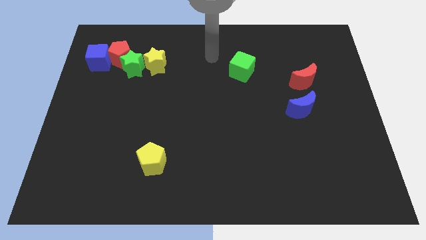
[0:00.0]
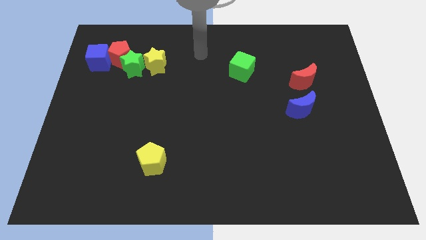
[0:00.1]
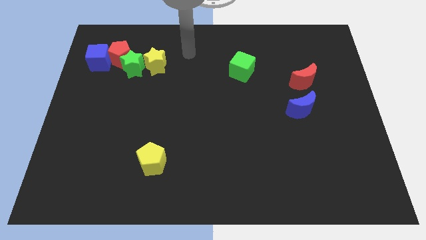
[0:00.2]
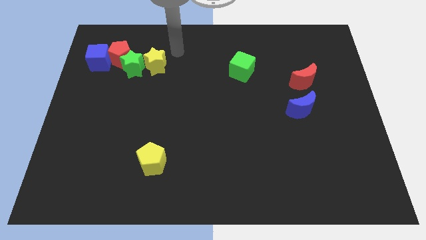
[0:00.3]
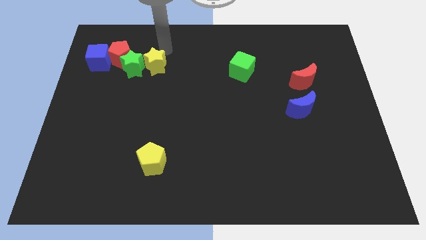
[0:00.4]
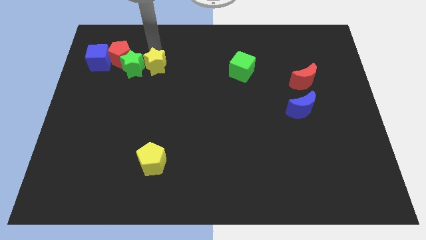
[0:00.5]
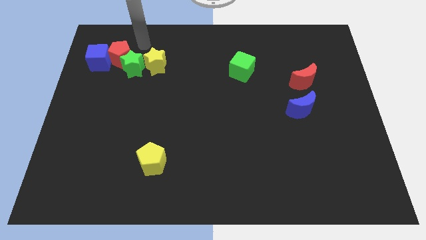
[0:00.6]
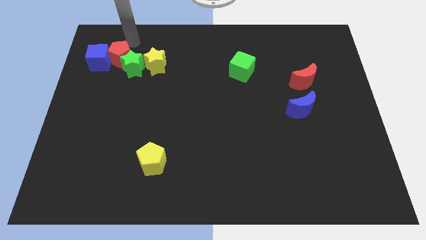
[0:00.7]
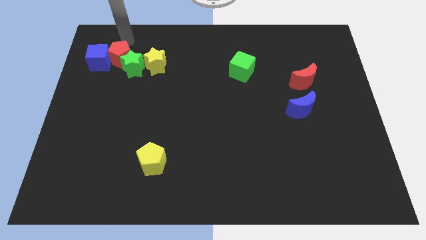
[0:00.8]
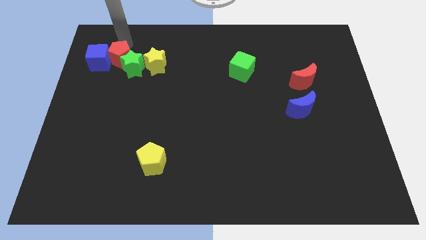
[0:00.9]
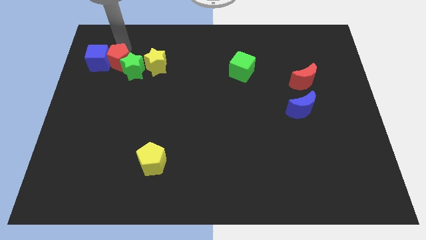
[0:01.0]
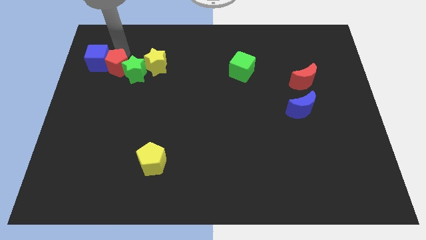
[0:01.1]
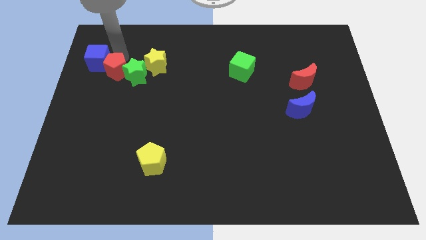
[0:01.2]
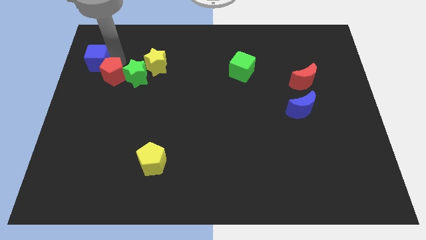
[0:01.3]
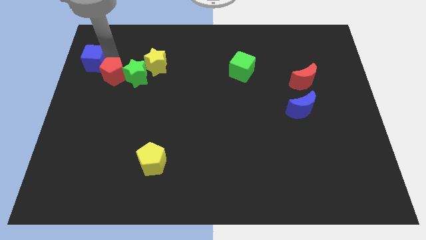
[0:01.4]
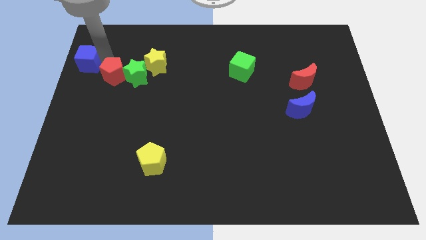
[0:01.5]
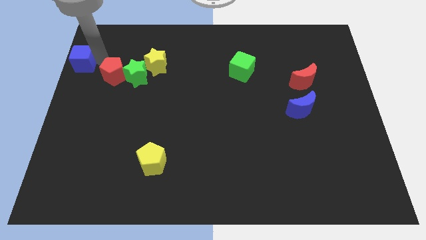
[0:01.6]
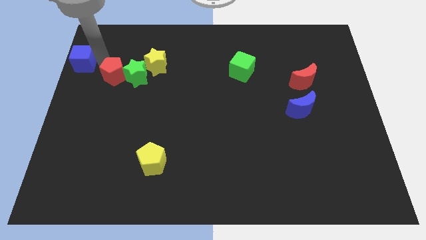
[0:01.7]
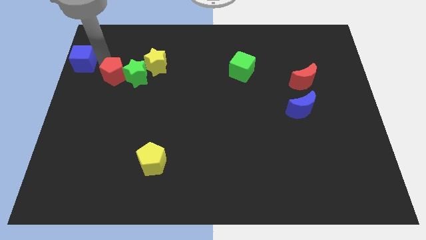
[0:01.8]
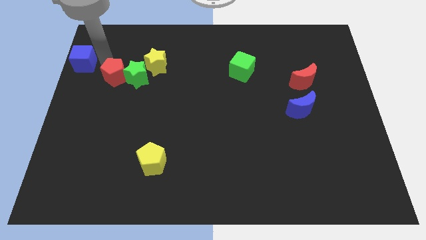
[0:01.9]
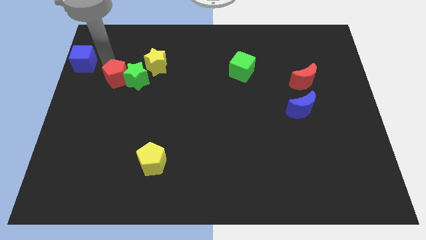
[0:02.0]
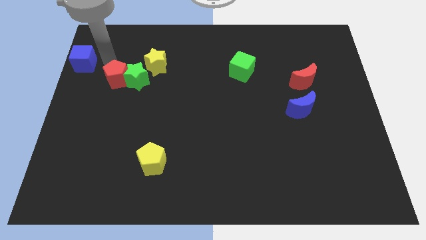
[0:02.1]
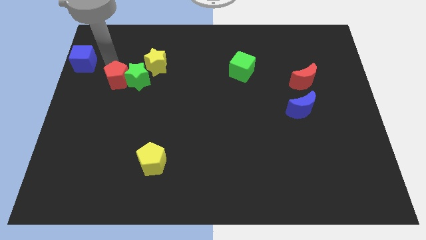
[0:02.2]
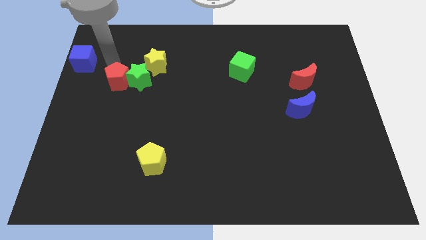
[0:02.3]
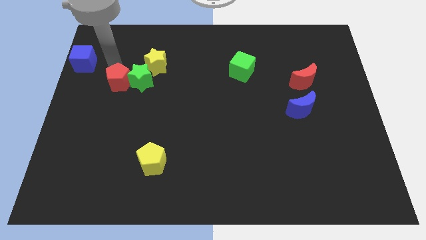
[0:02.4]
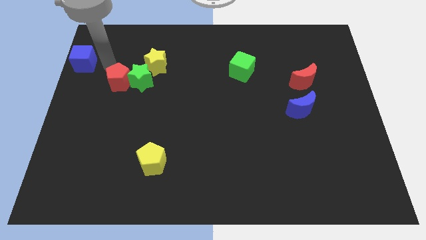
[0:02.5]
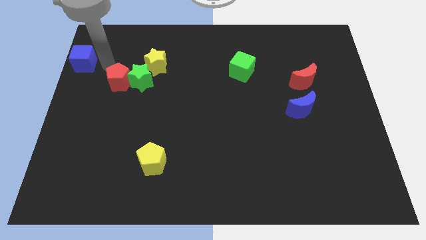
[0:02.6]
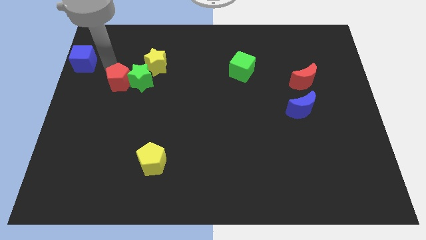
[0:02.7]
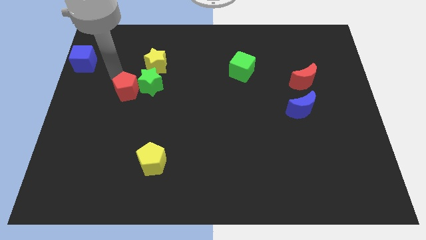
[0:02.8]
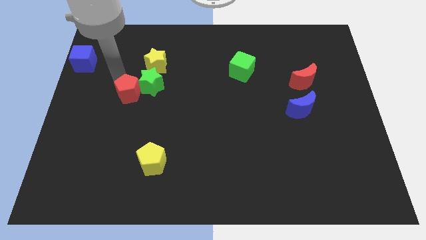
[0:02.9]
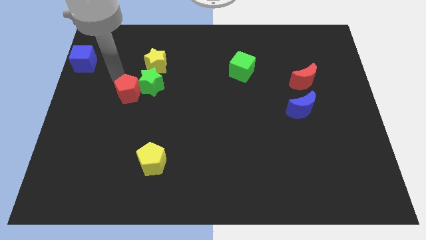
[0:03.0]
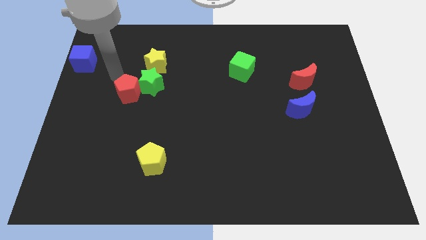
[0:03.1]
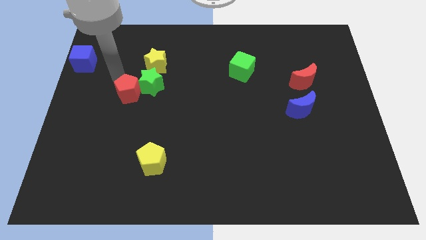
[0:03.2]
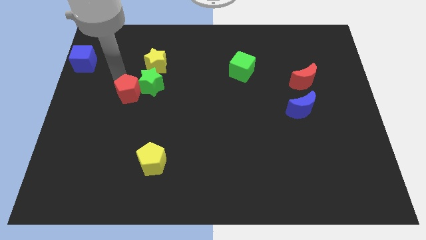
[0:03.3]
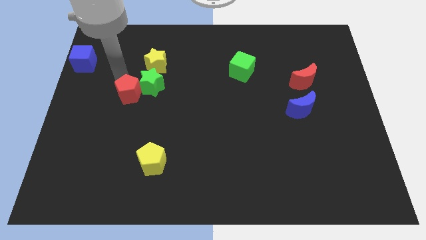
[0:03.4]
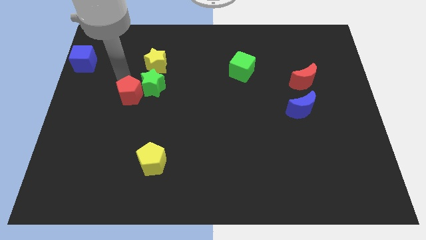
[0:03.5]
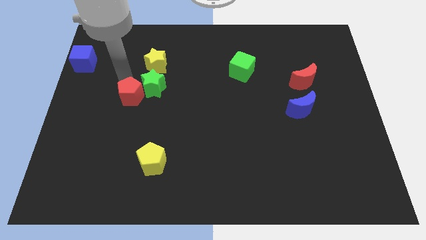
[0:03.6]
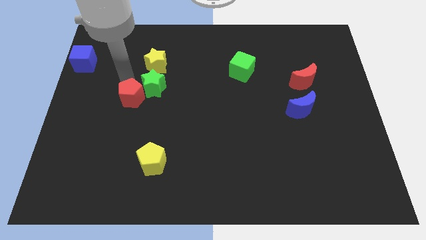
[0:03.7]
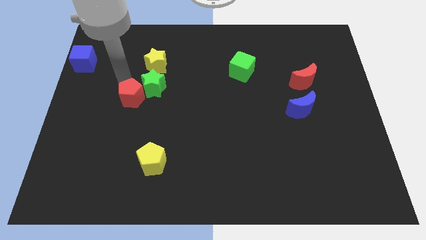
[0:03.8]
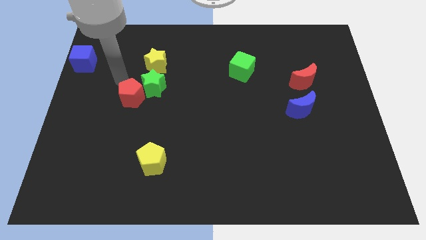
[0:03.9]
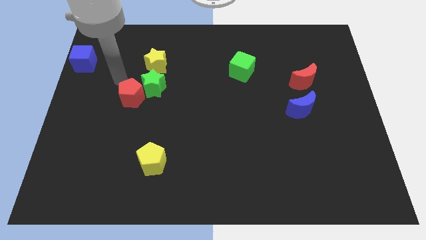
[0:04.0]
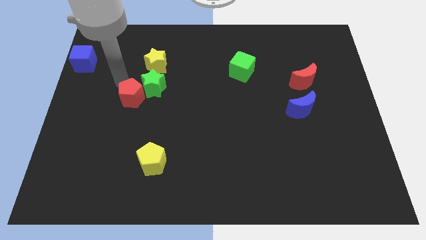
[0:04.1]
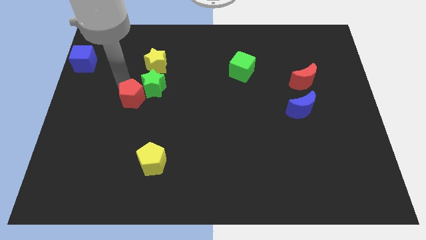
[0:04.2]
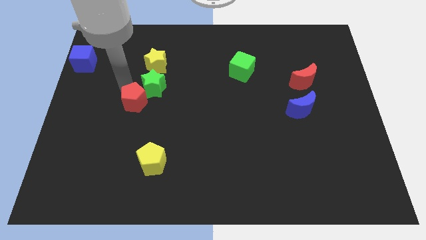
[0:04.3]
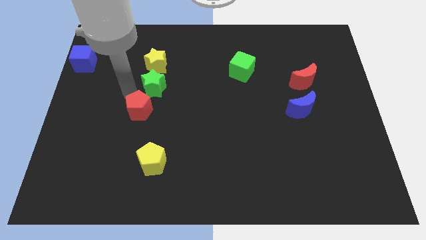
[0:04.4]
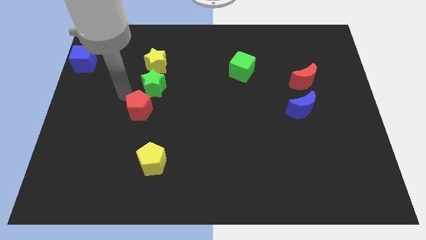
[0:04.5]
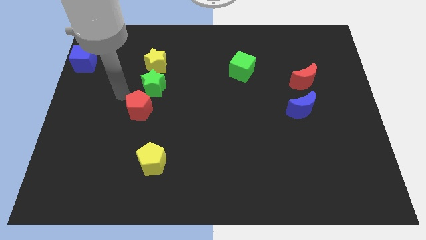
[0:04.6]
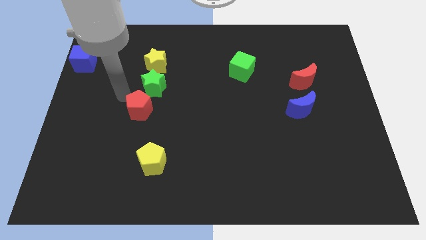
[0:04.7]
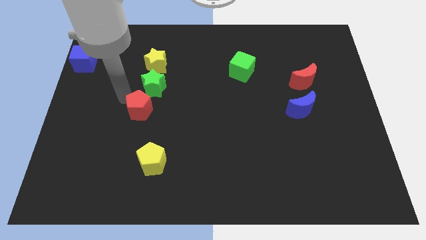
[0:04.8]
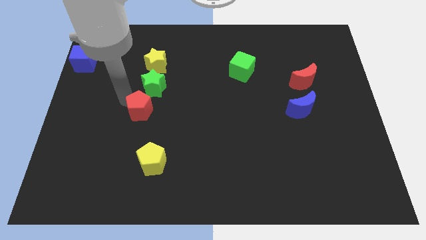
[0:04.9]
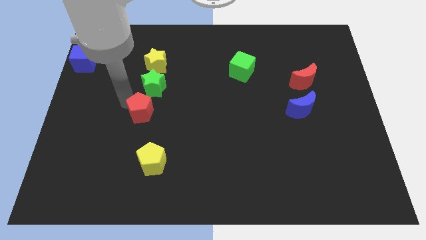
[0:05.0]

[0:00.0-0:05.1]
put the red pentagon above the yellow pentagon

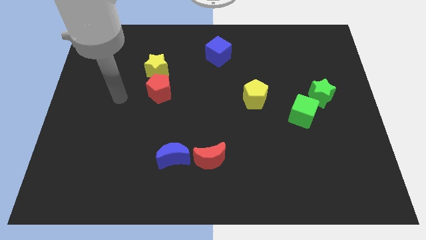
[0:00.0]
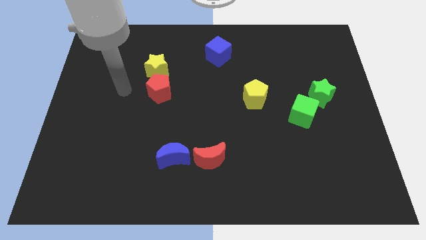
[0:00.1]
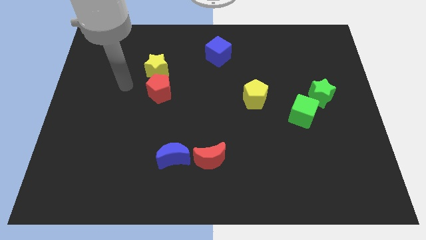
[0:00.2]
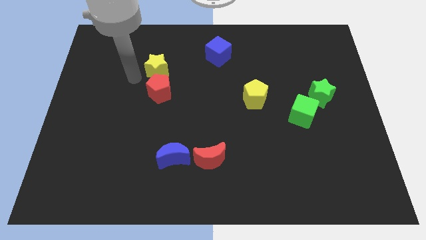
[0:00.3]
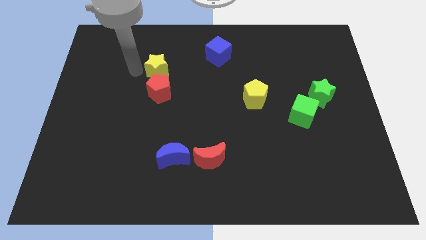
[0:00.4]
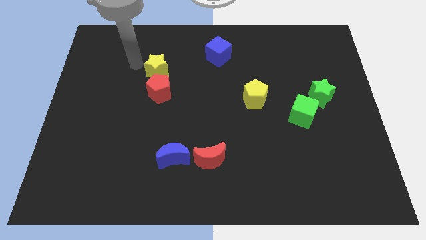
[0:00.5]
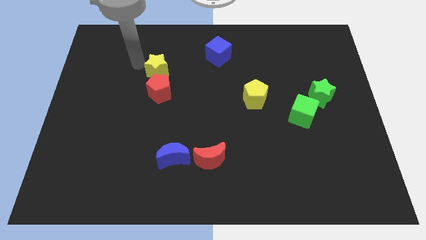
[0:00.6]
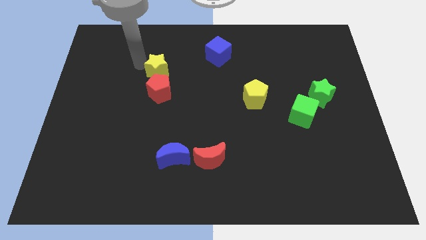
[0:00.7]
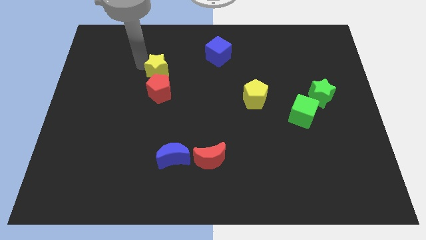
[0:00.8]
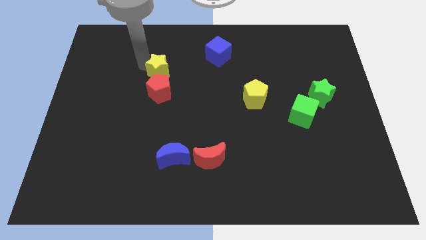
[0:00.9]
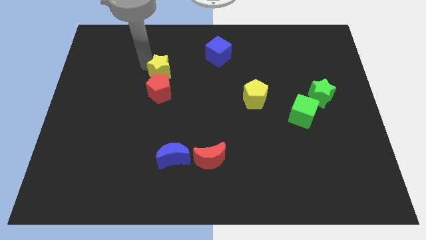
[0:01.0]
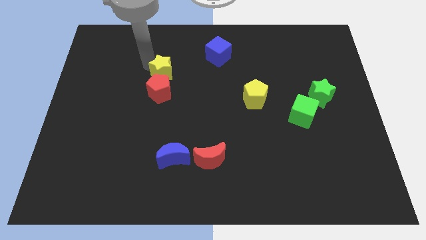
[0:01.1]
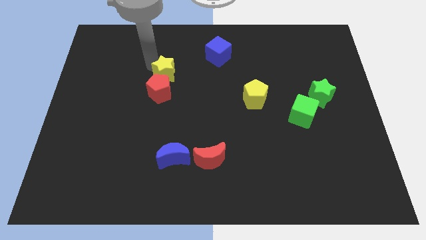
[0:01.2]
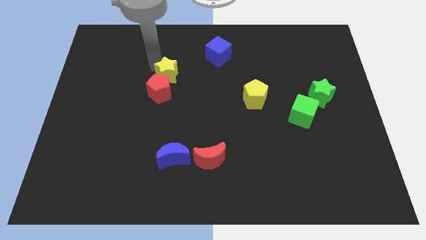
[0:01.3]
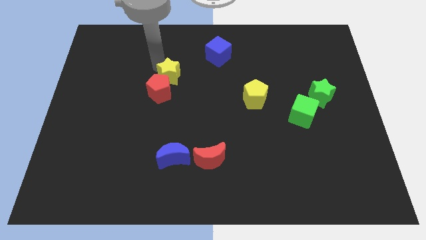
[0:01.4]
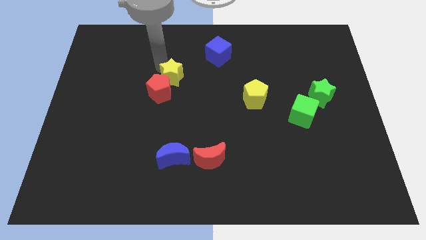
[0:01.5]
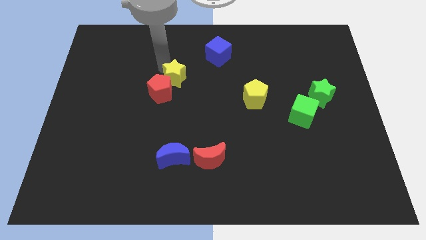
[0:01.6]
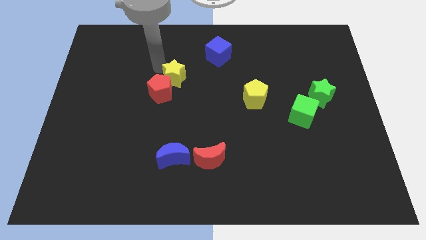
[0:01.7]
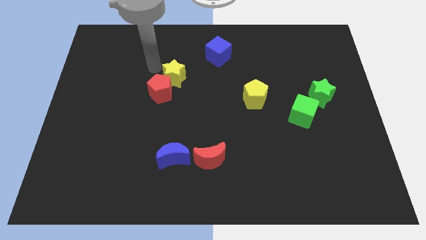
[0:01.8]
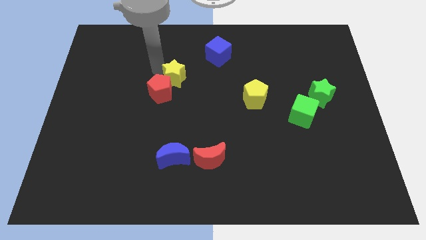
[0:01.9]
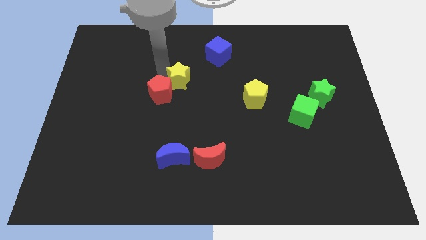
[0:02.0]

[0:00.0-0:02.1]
push the yellow star to the right of the red pentagon

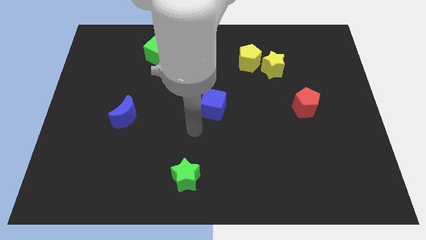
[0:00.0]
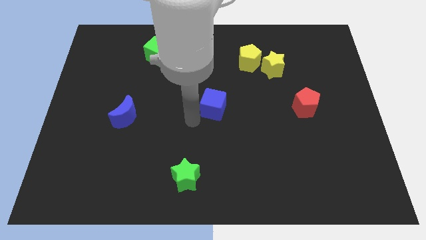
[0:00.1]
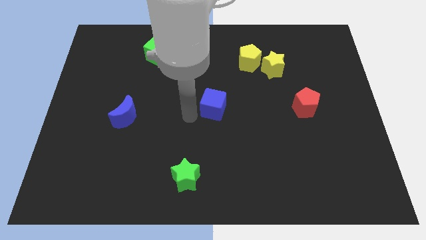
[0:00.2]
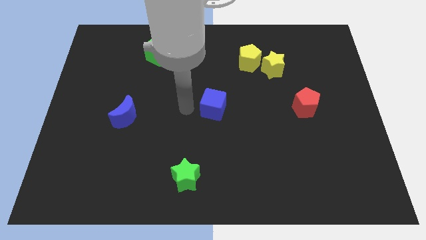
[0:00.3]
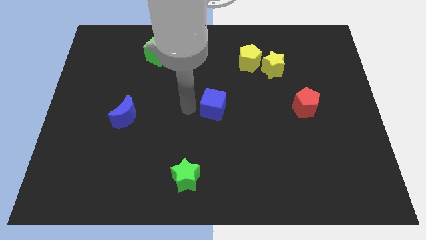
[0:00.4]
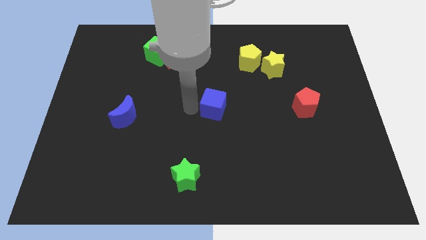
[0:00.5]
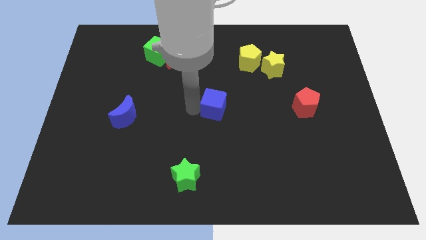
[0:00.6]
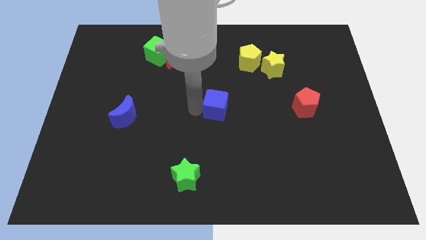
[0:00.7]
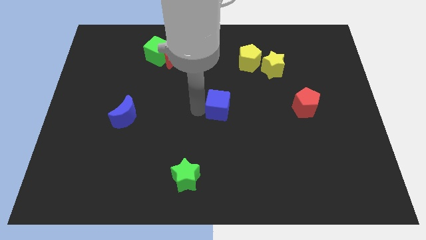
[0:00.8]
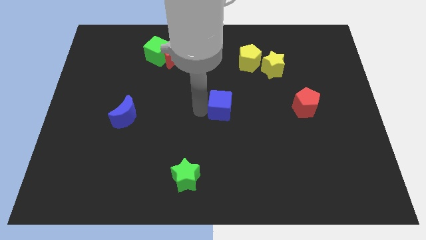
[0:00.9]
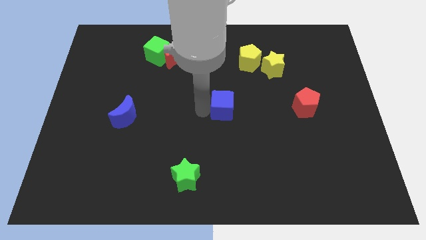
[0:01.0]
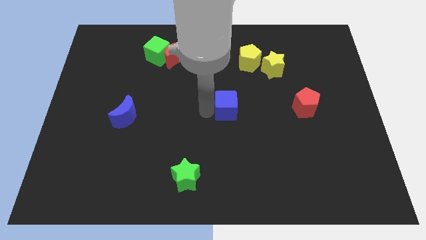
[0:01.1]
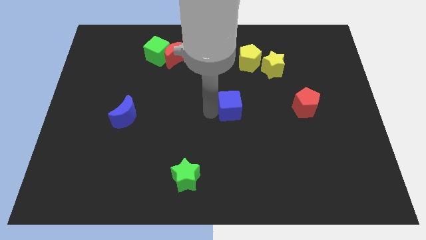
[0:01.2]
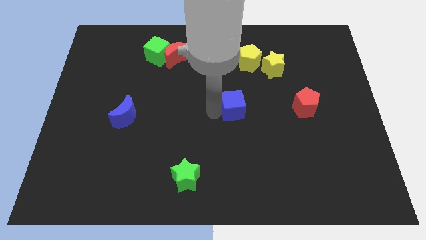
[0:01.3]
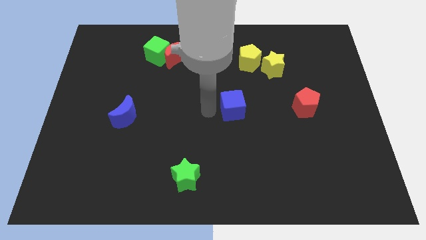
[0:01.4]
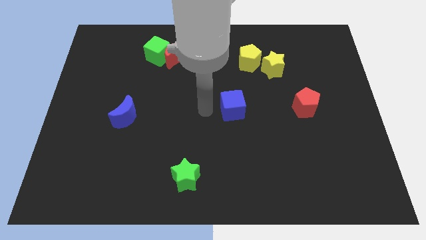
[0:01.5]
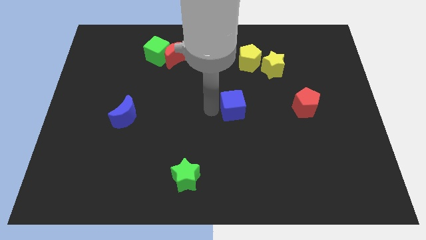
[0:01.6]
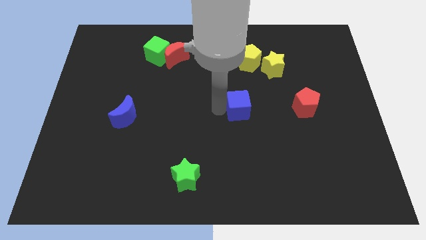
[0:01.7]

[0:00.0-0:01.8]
push the blue cube just left of the red pentagon
